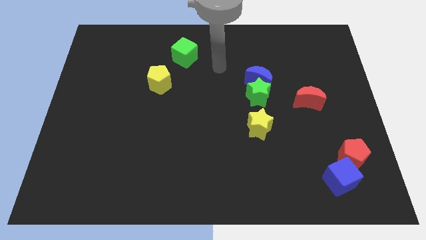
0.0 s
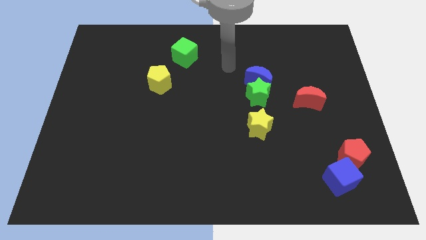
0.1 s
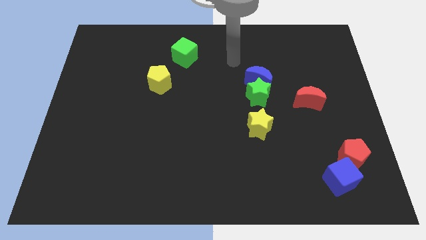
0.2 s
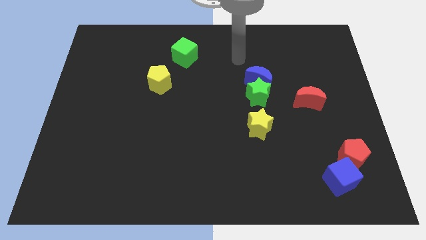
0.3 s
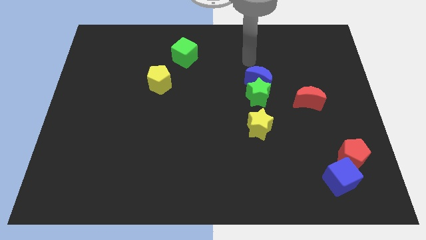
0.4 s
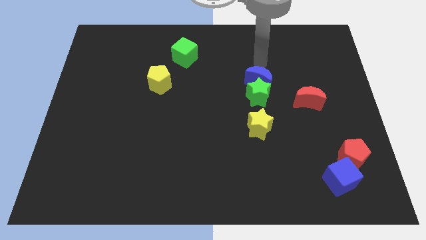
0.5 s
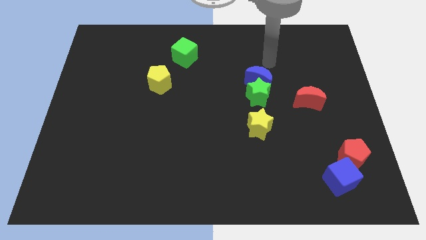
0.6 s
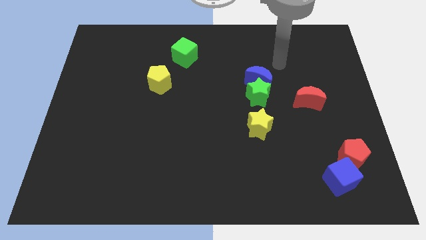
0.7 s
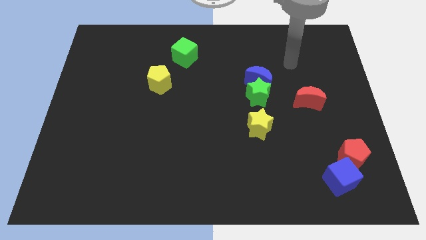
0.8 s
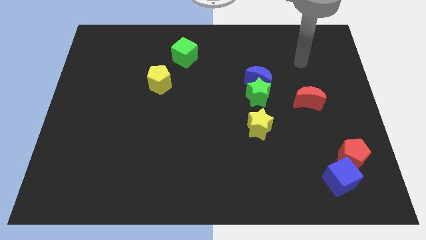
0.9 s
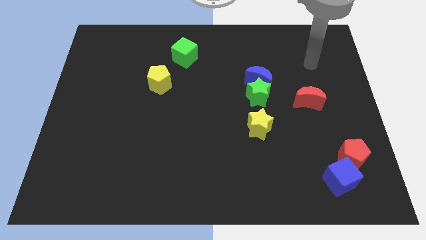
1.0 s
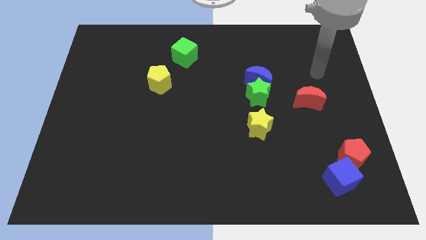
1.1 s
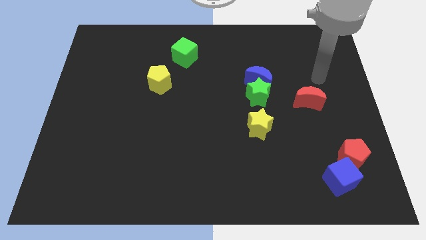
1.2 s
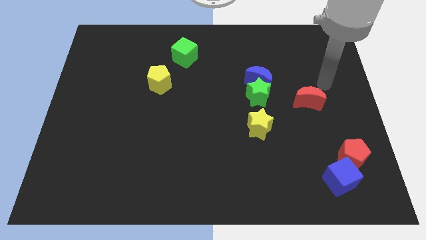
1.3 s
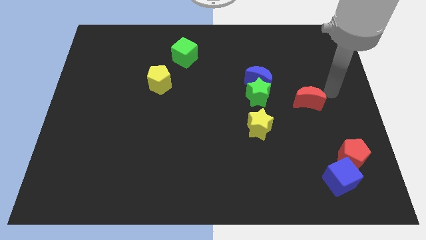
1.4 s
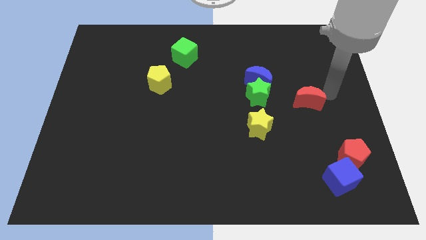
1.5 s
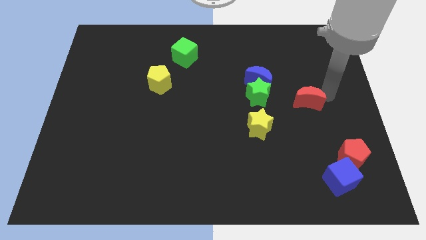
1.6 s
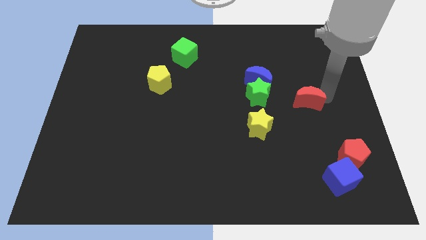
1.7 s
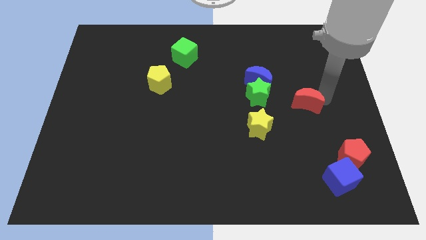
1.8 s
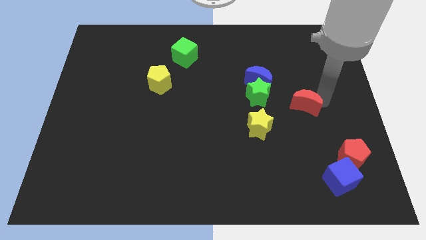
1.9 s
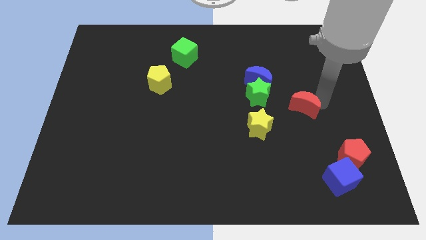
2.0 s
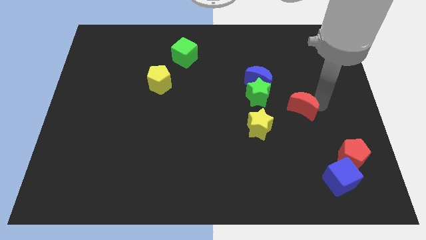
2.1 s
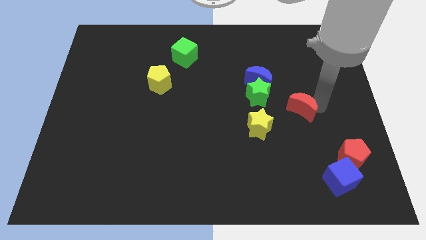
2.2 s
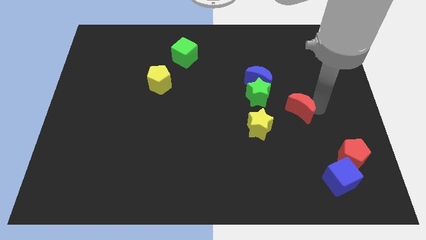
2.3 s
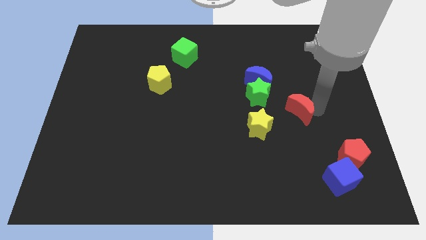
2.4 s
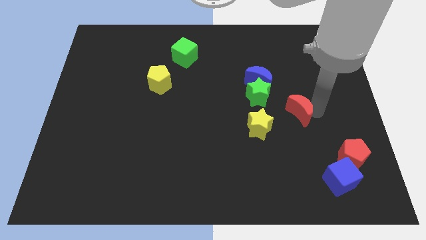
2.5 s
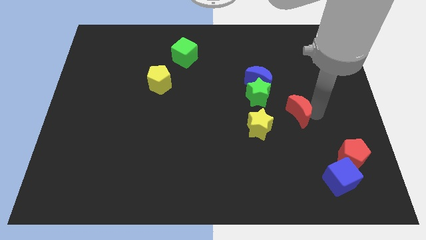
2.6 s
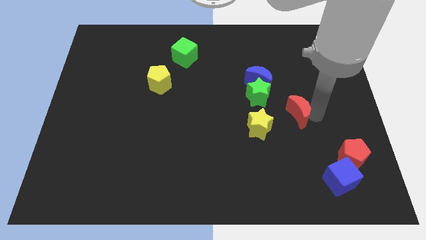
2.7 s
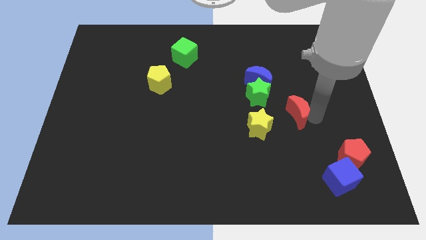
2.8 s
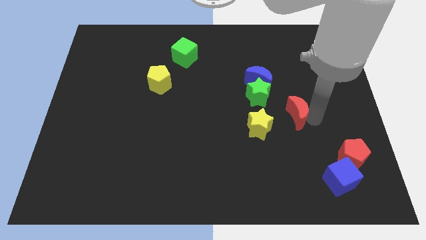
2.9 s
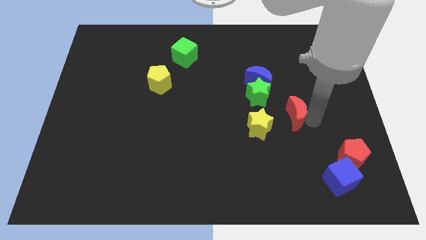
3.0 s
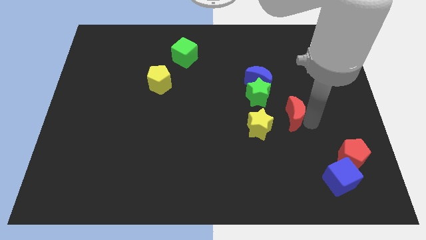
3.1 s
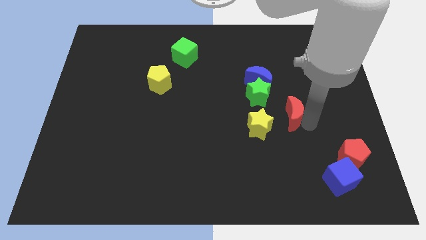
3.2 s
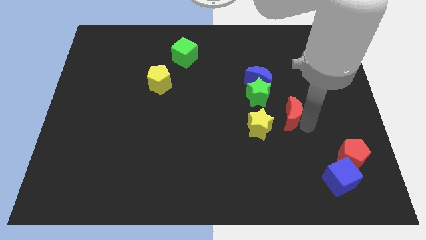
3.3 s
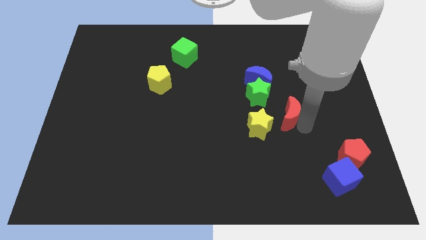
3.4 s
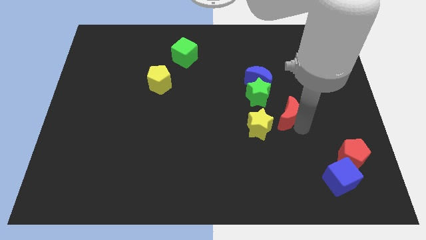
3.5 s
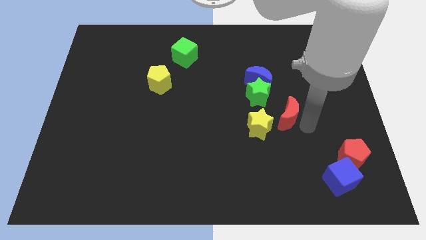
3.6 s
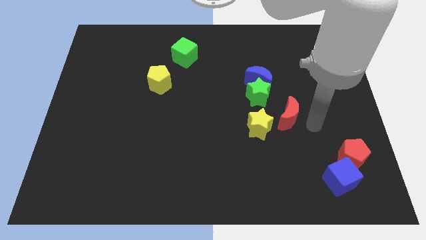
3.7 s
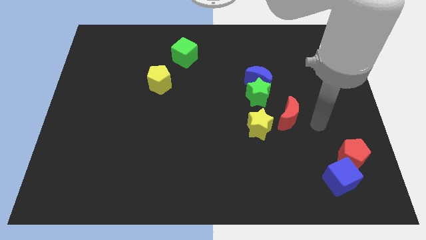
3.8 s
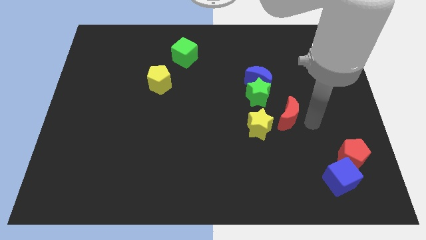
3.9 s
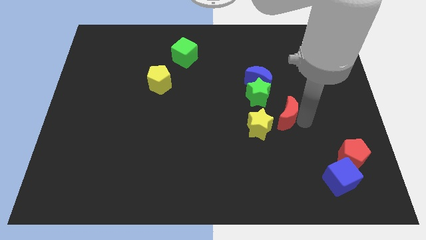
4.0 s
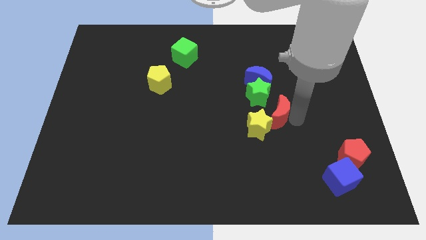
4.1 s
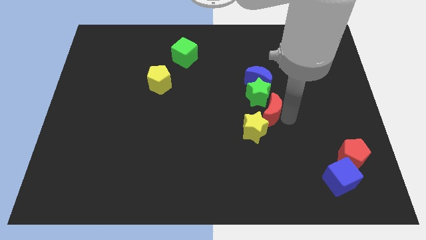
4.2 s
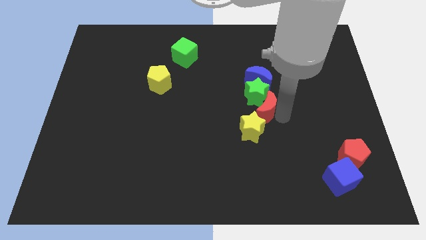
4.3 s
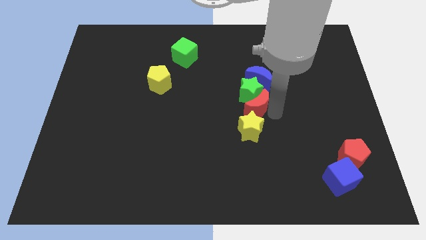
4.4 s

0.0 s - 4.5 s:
slide the red moon to the middle of the board

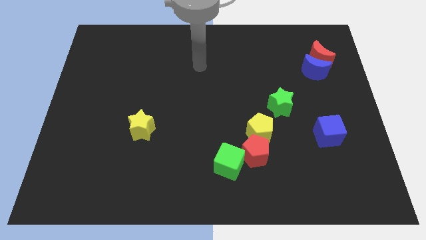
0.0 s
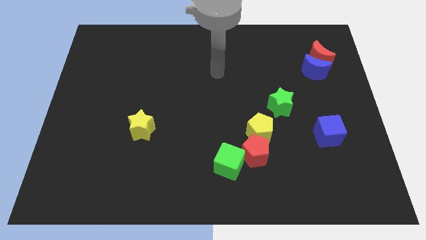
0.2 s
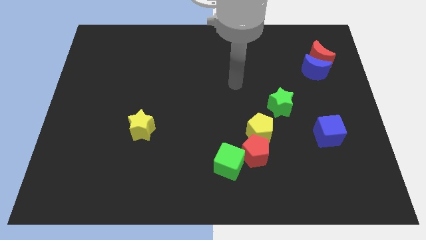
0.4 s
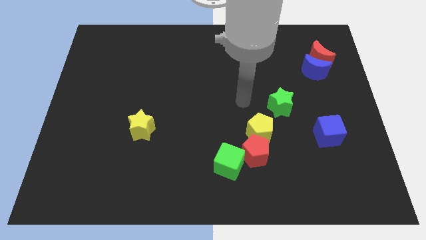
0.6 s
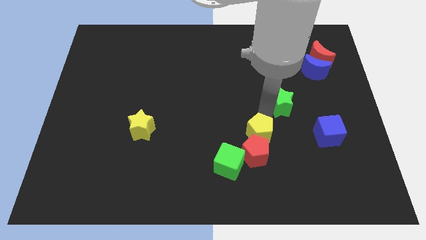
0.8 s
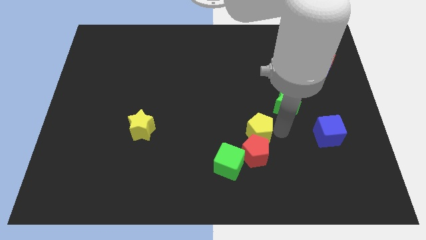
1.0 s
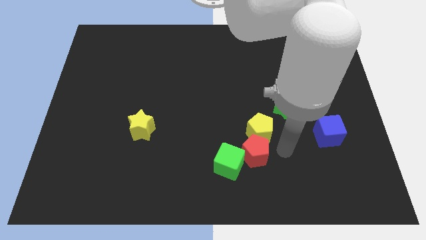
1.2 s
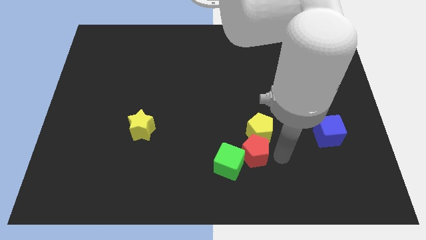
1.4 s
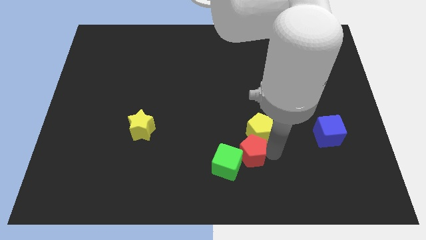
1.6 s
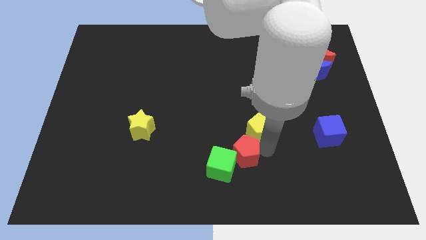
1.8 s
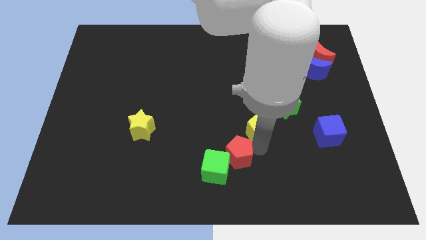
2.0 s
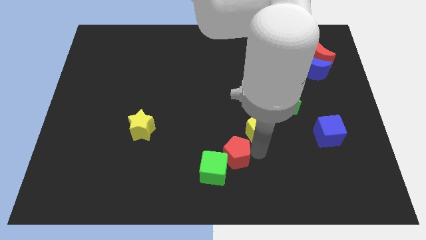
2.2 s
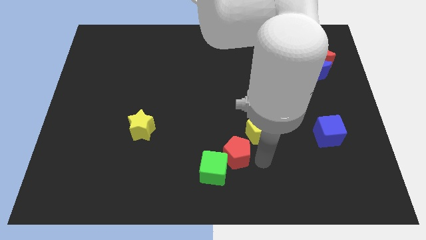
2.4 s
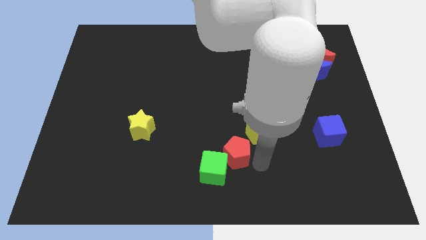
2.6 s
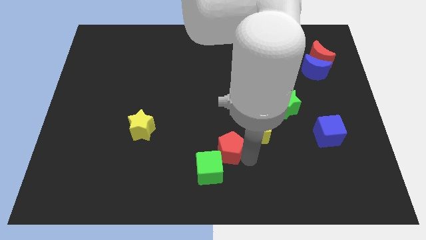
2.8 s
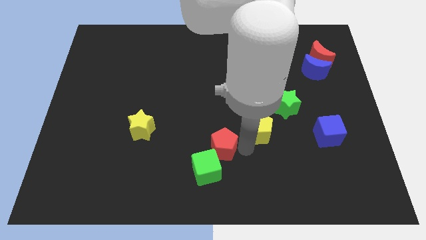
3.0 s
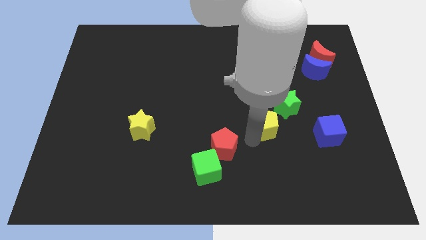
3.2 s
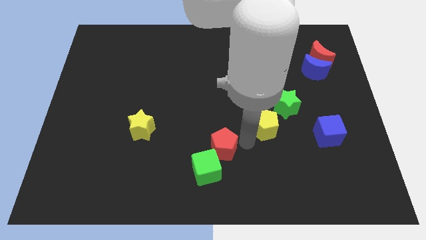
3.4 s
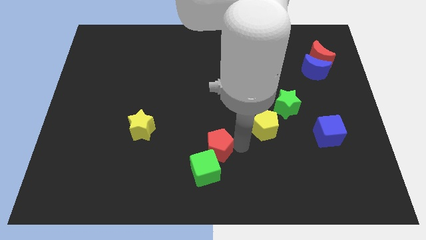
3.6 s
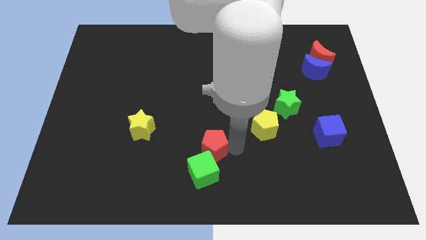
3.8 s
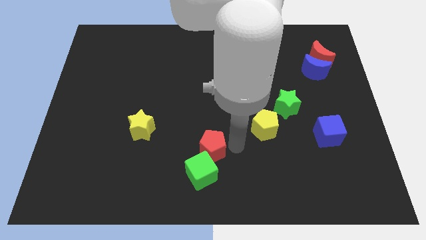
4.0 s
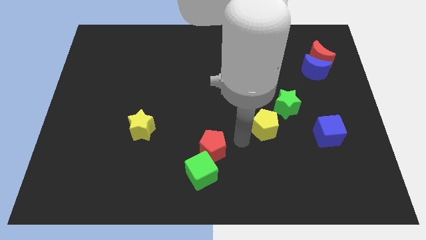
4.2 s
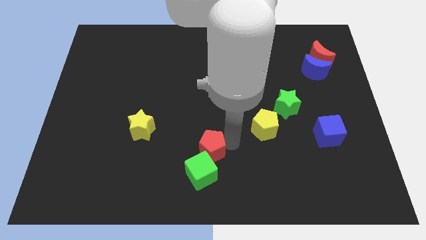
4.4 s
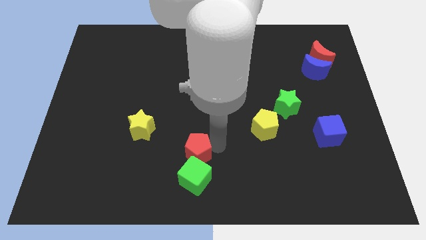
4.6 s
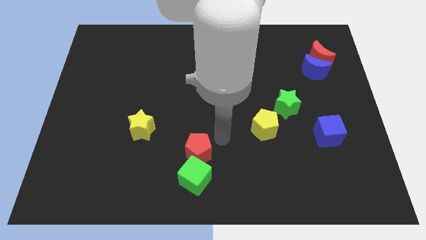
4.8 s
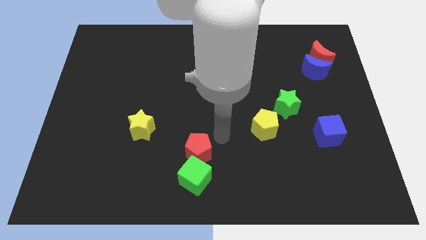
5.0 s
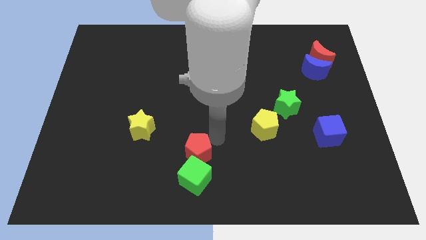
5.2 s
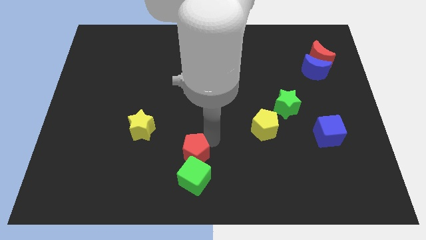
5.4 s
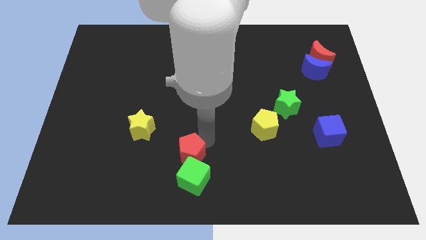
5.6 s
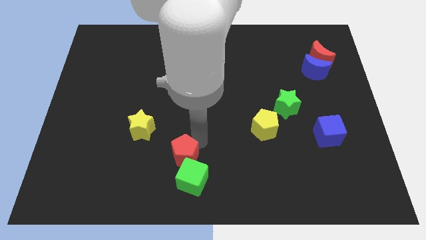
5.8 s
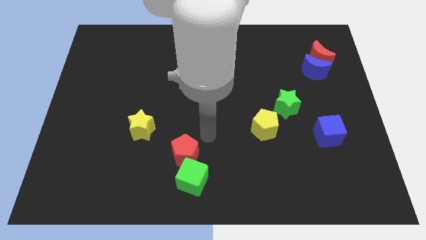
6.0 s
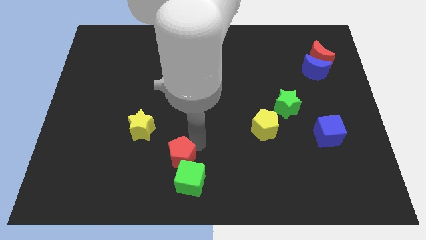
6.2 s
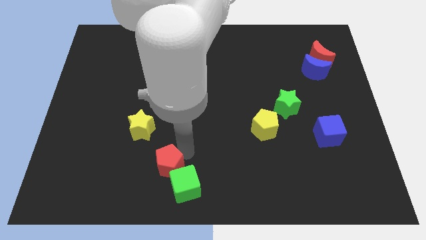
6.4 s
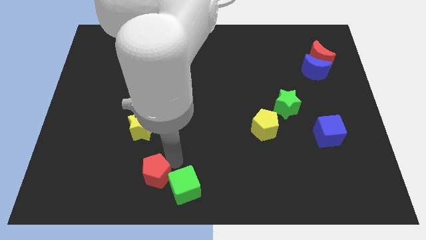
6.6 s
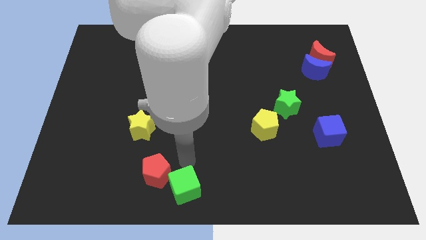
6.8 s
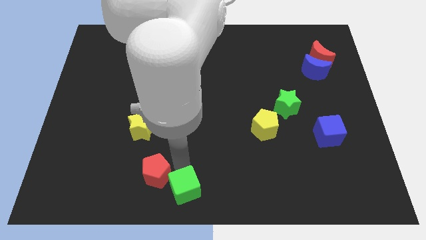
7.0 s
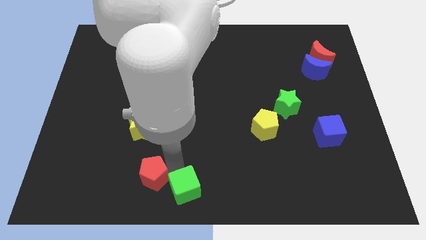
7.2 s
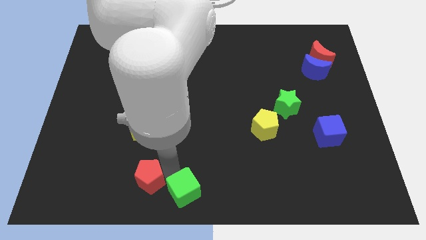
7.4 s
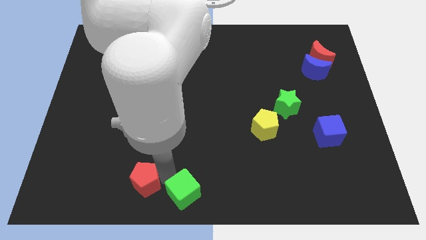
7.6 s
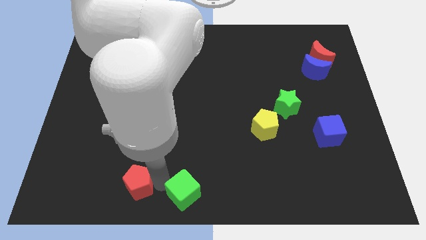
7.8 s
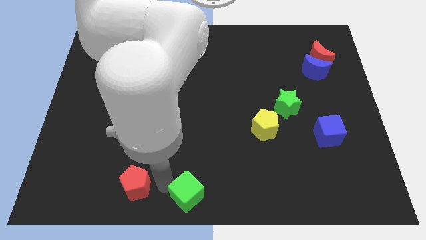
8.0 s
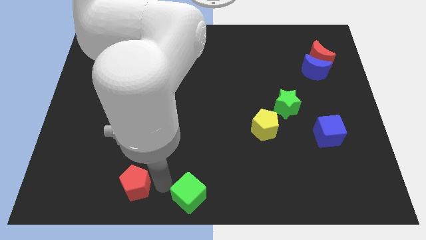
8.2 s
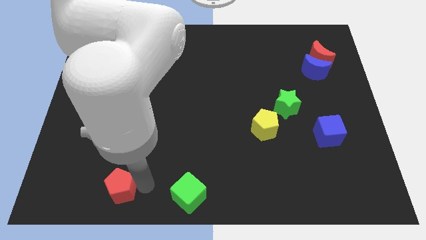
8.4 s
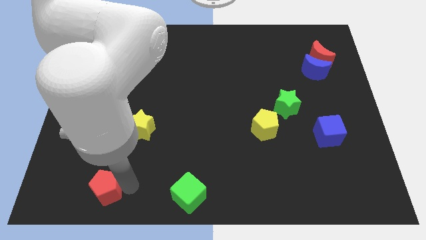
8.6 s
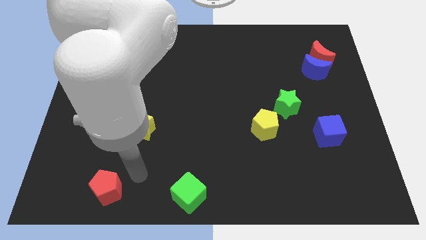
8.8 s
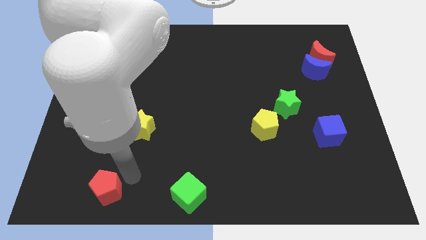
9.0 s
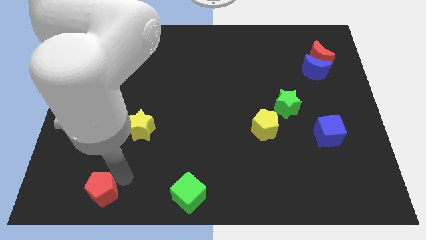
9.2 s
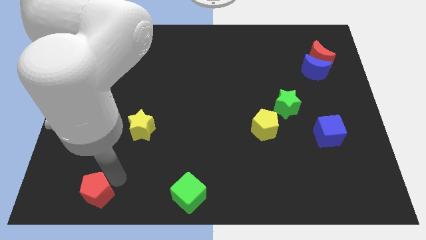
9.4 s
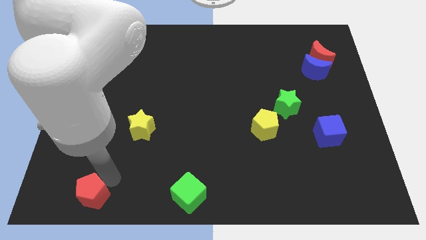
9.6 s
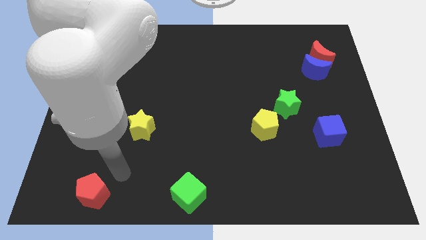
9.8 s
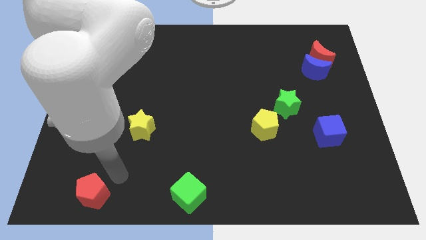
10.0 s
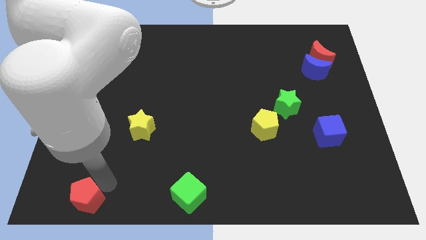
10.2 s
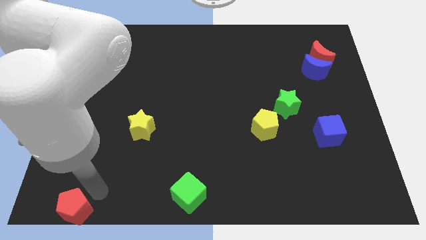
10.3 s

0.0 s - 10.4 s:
put the red pentagon to the bottom left of the board
